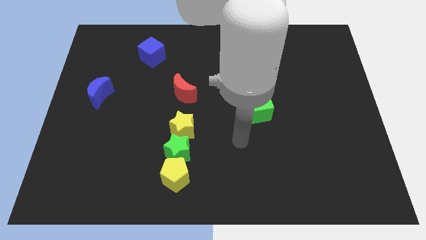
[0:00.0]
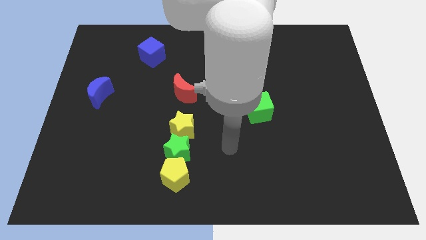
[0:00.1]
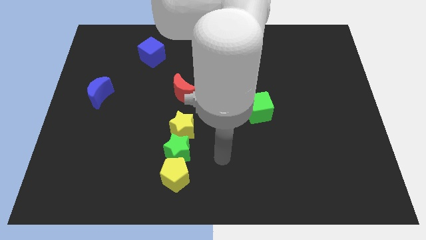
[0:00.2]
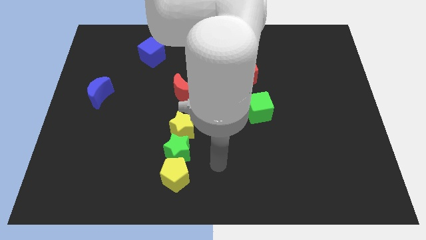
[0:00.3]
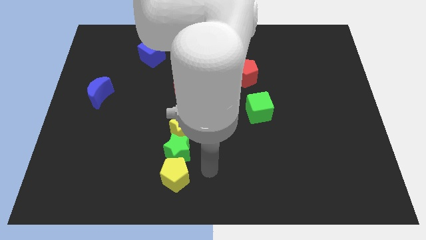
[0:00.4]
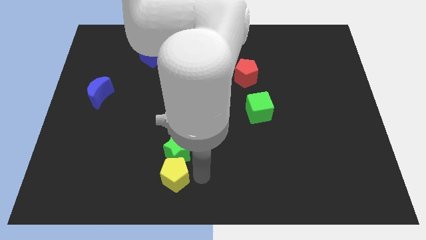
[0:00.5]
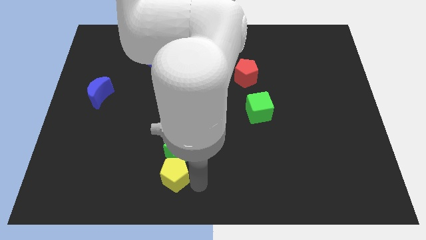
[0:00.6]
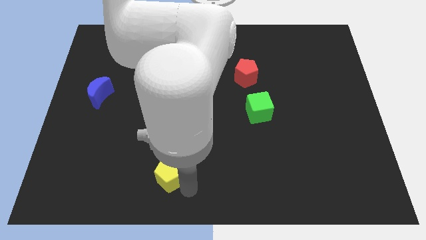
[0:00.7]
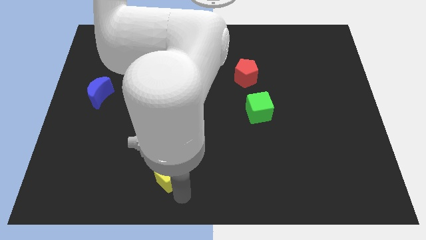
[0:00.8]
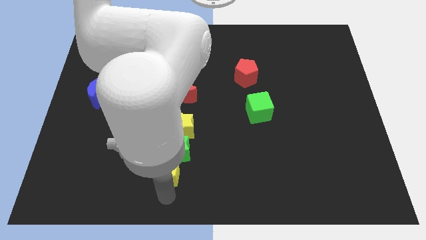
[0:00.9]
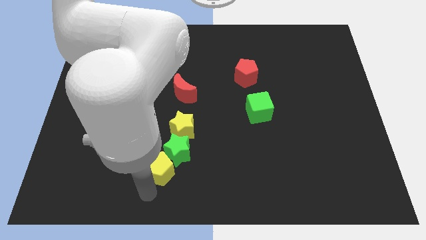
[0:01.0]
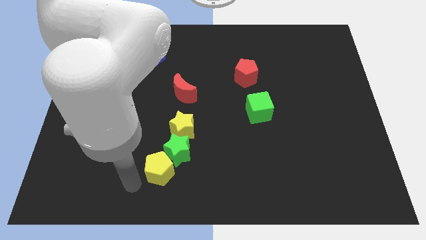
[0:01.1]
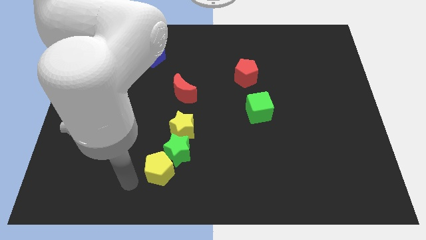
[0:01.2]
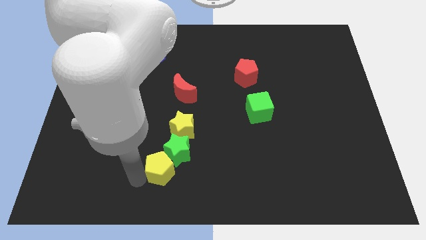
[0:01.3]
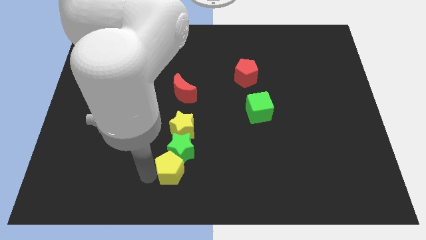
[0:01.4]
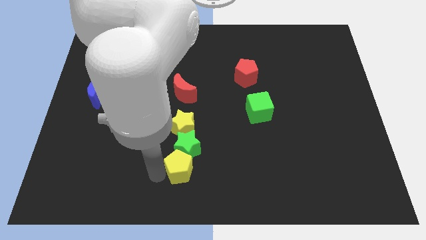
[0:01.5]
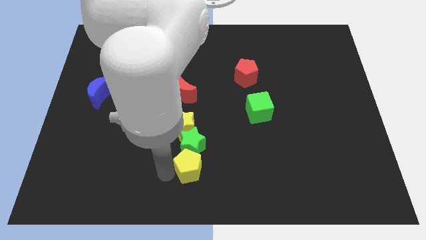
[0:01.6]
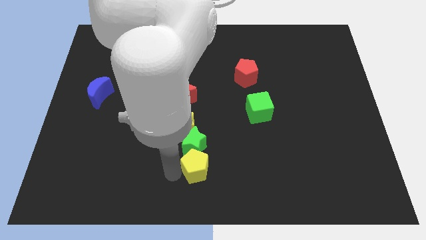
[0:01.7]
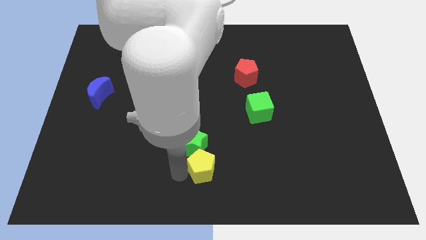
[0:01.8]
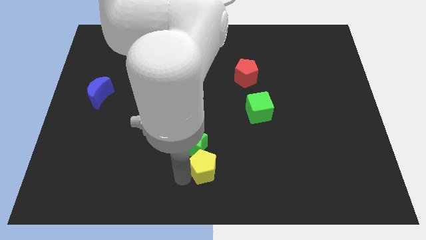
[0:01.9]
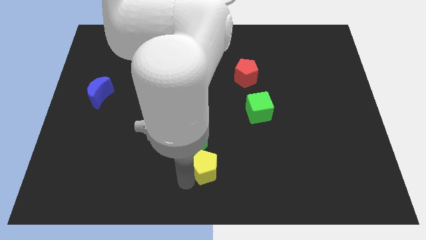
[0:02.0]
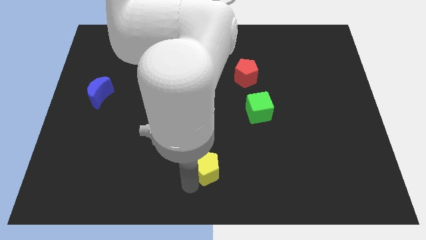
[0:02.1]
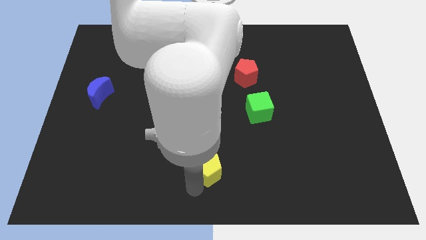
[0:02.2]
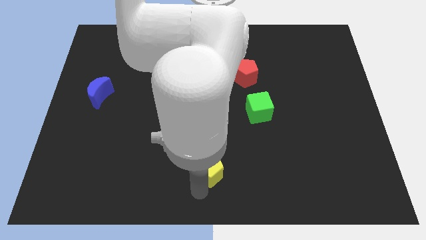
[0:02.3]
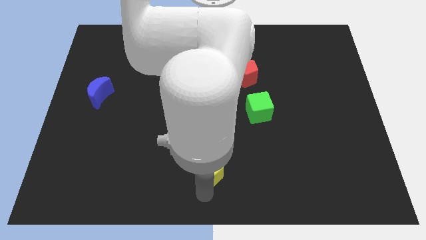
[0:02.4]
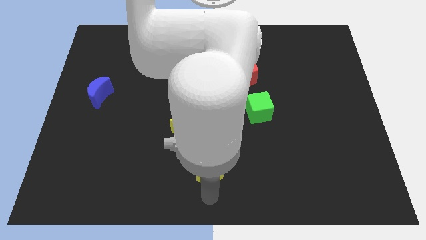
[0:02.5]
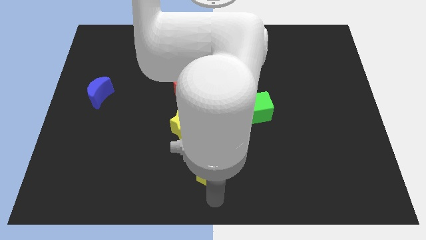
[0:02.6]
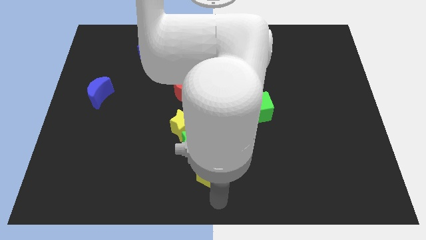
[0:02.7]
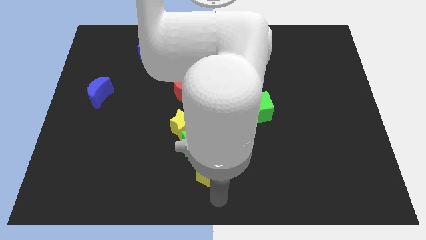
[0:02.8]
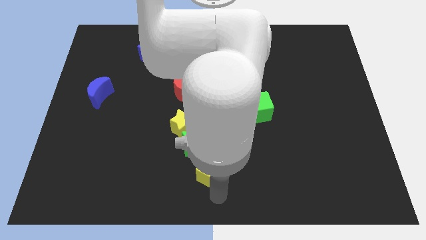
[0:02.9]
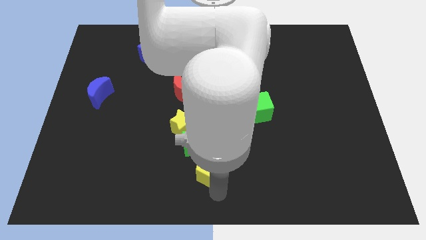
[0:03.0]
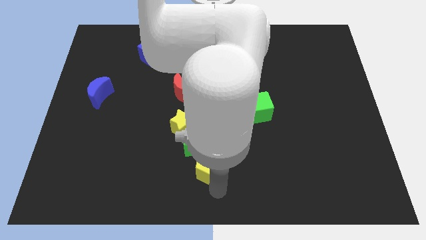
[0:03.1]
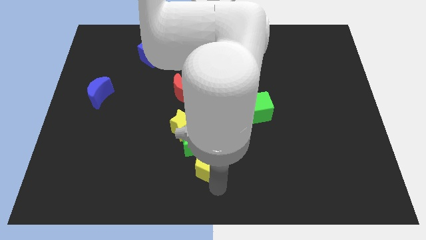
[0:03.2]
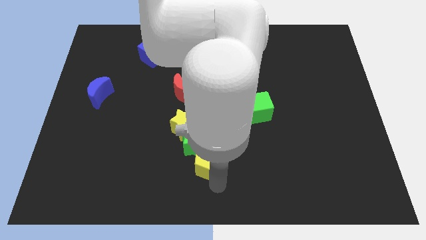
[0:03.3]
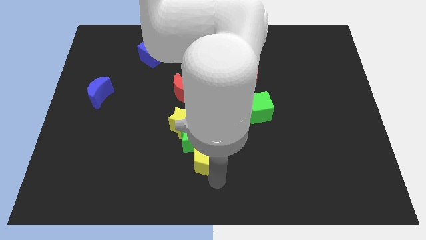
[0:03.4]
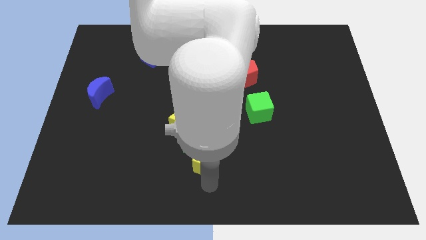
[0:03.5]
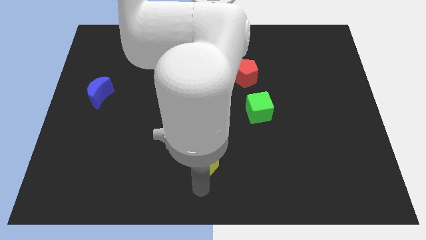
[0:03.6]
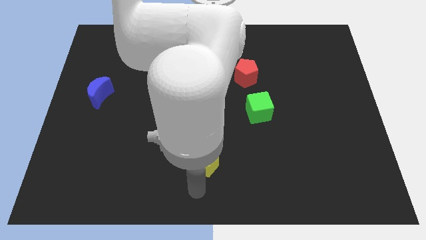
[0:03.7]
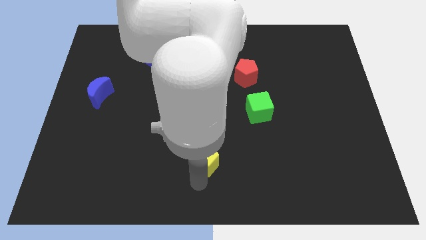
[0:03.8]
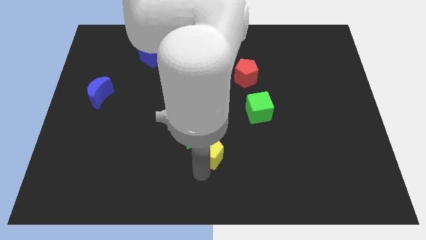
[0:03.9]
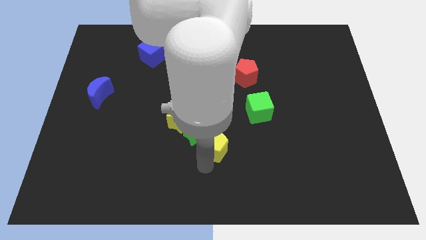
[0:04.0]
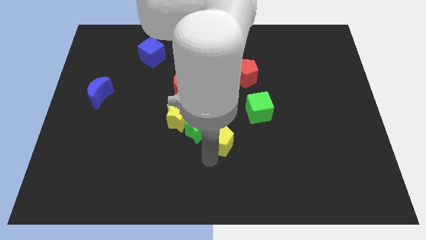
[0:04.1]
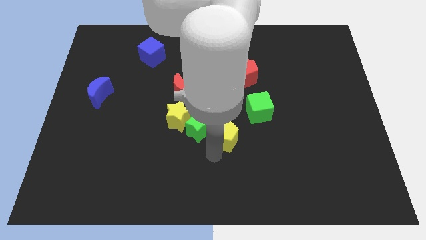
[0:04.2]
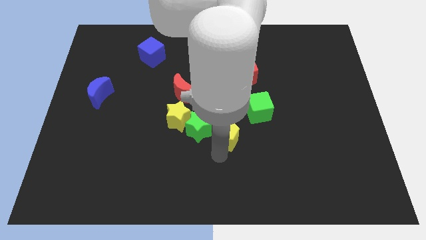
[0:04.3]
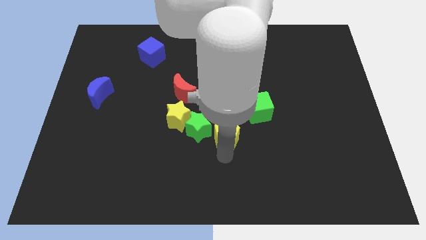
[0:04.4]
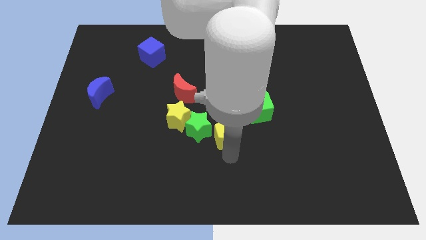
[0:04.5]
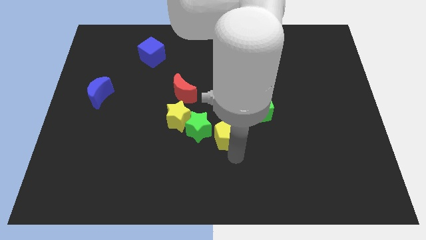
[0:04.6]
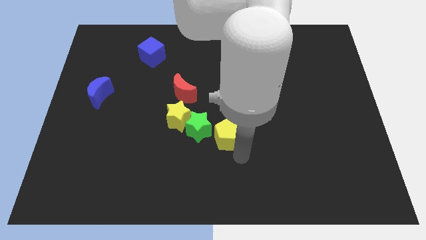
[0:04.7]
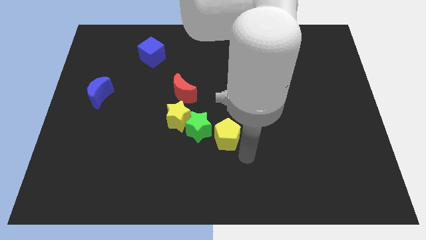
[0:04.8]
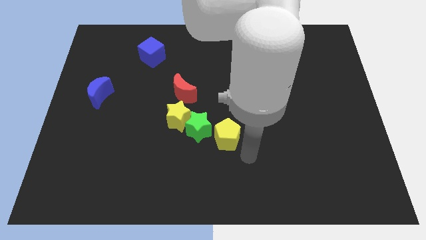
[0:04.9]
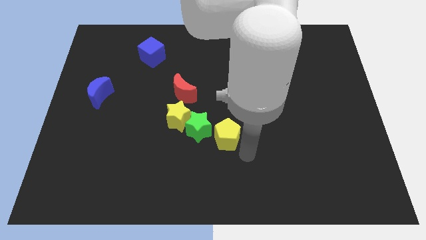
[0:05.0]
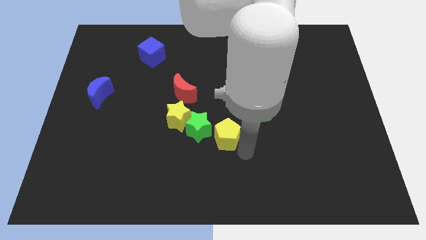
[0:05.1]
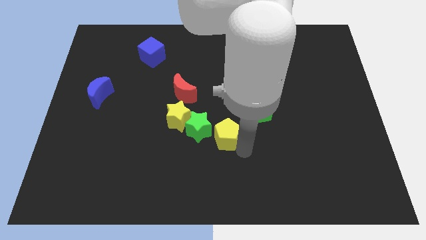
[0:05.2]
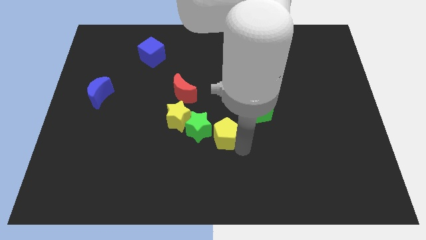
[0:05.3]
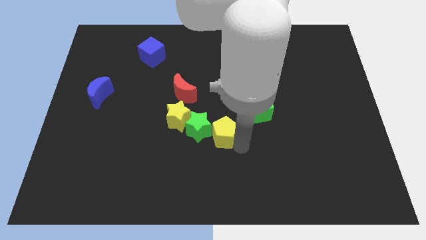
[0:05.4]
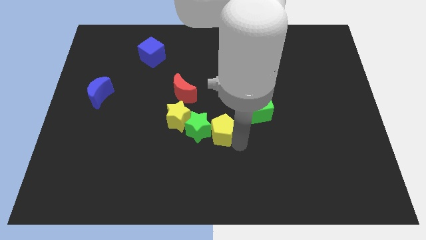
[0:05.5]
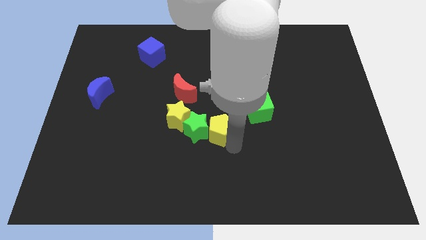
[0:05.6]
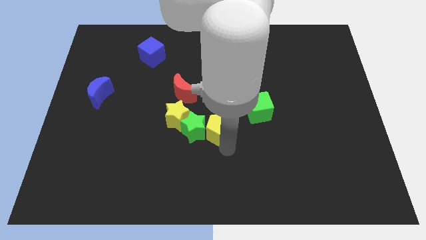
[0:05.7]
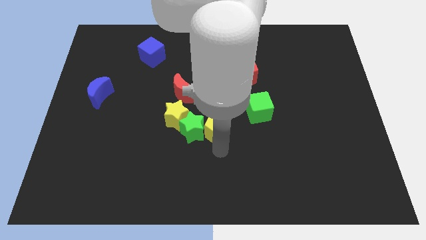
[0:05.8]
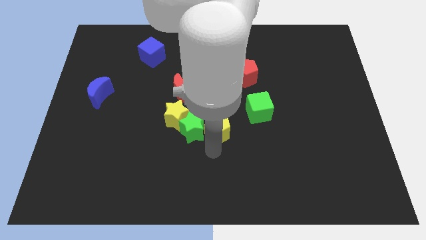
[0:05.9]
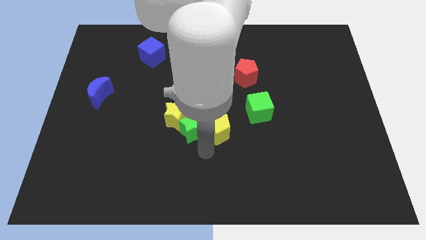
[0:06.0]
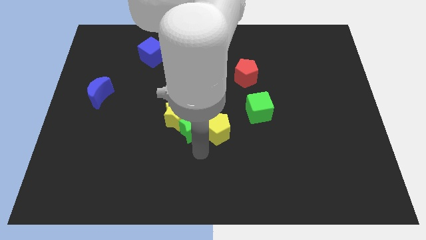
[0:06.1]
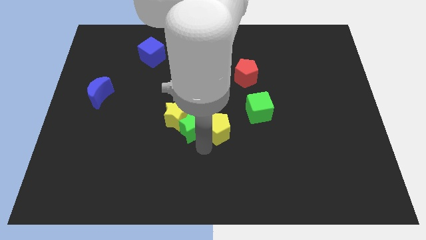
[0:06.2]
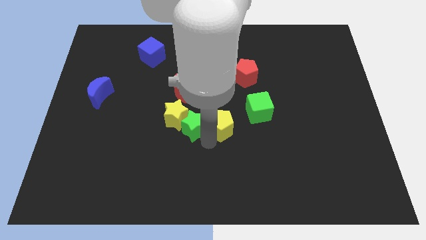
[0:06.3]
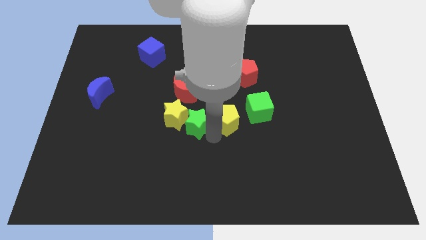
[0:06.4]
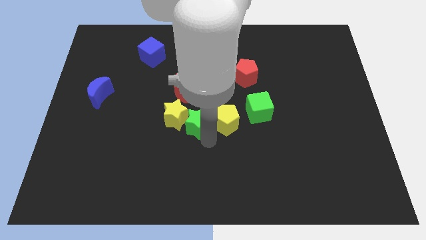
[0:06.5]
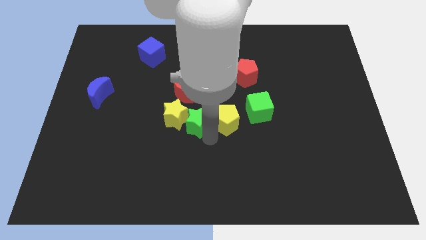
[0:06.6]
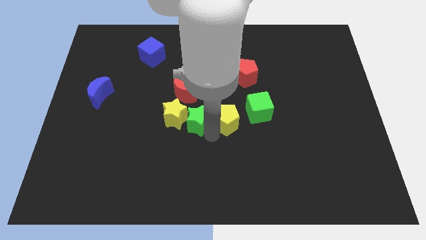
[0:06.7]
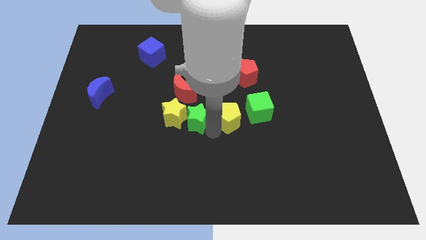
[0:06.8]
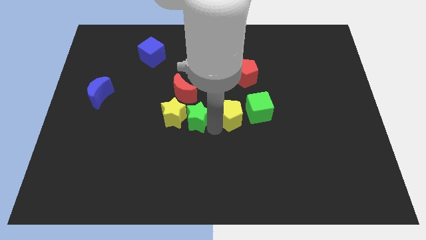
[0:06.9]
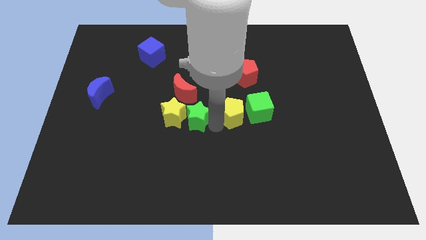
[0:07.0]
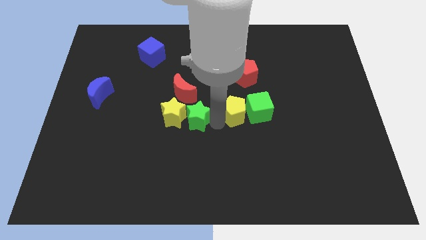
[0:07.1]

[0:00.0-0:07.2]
move the yellow pentagon up and to the right

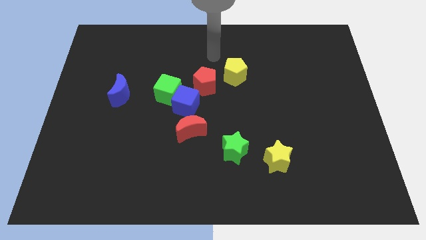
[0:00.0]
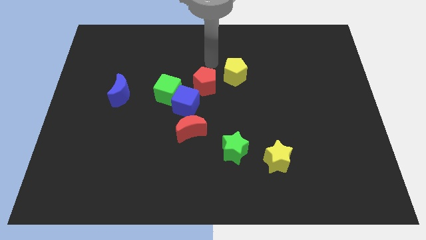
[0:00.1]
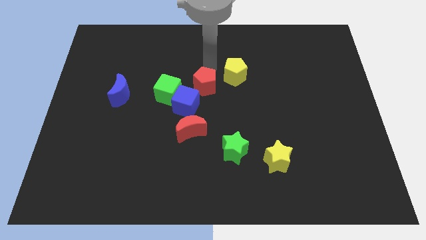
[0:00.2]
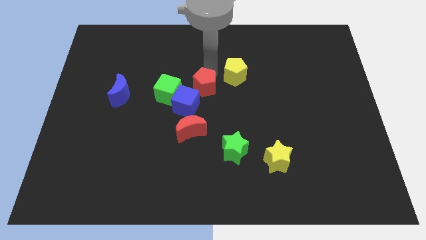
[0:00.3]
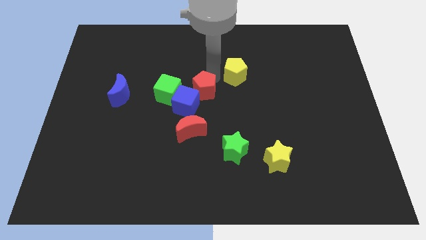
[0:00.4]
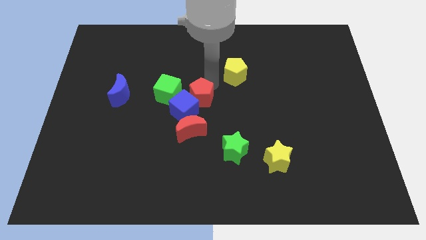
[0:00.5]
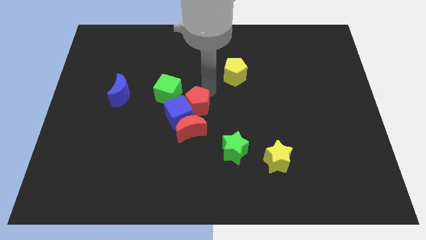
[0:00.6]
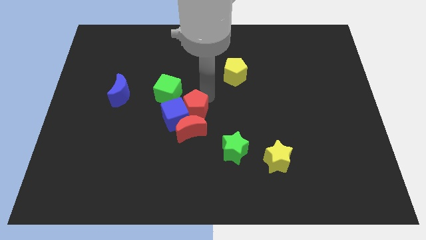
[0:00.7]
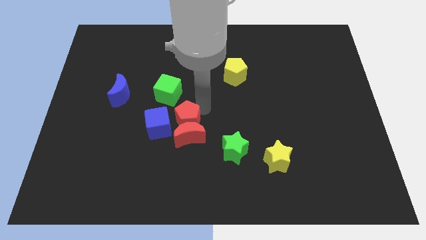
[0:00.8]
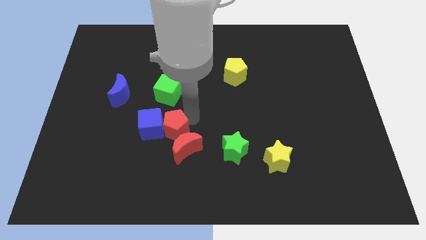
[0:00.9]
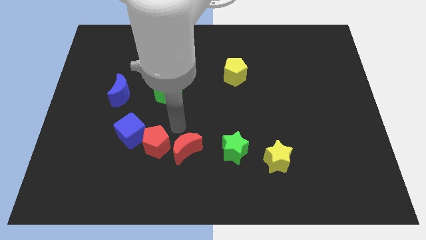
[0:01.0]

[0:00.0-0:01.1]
slightly push the blue cube left
